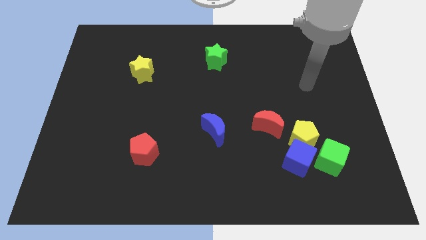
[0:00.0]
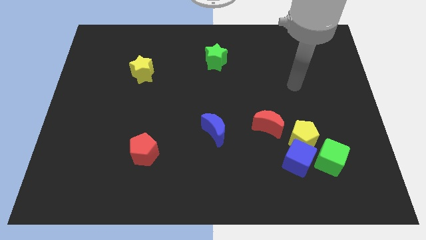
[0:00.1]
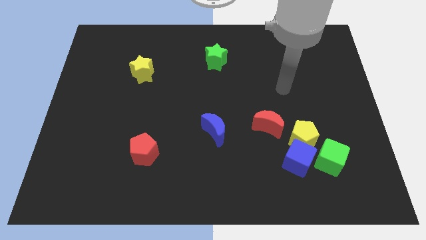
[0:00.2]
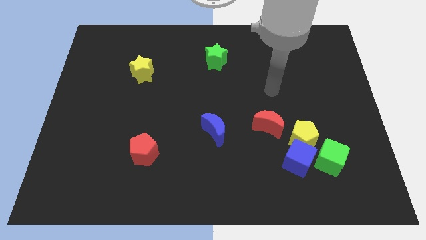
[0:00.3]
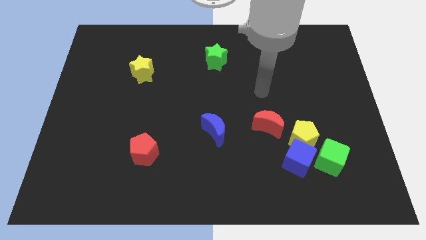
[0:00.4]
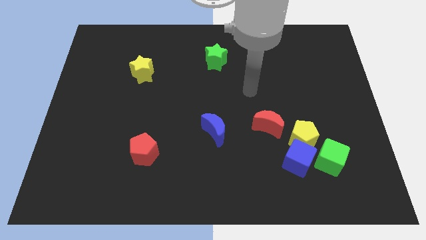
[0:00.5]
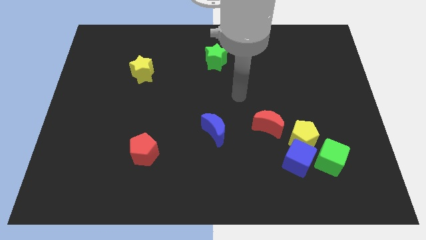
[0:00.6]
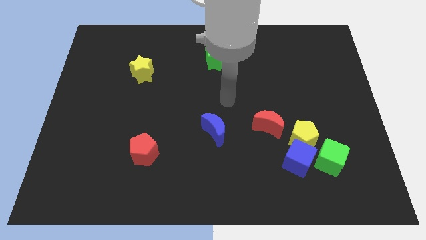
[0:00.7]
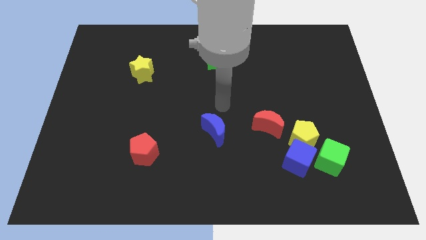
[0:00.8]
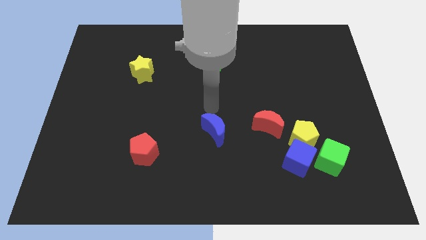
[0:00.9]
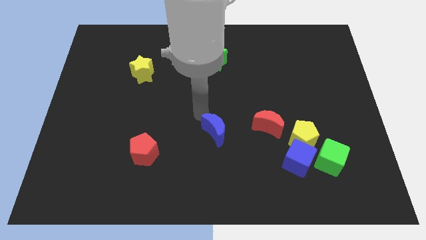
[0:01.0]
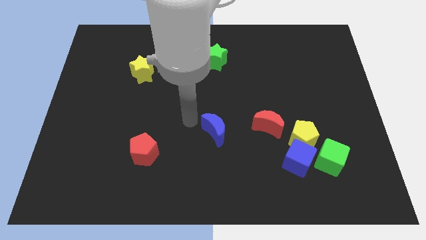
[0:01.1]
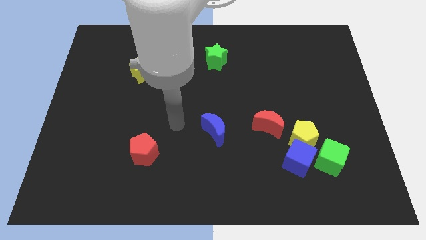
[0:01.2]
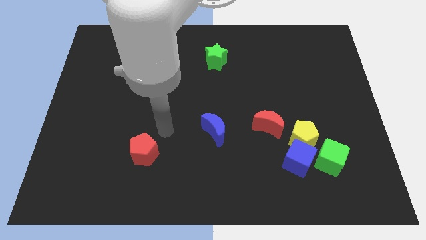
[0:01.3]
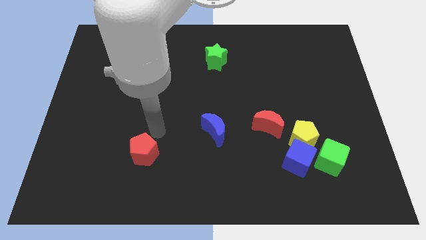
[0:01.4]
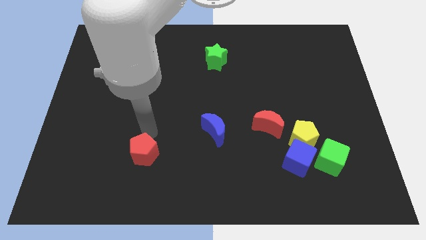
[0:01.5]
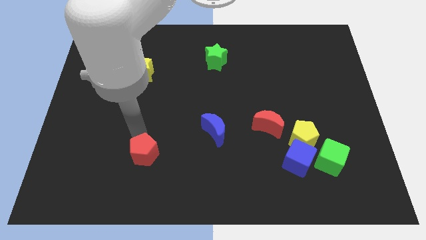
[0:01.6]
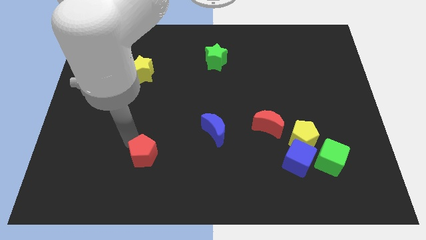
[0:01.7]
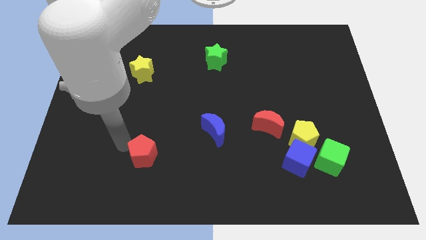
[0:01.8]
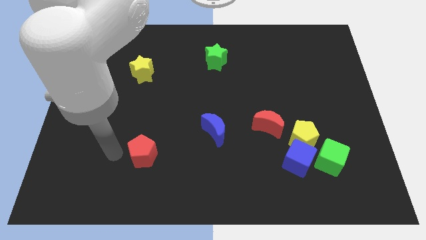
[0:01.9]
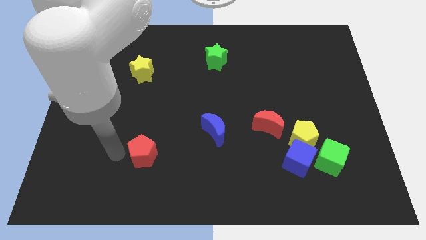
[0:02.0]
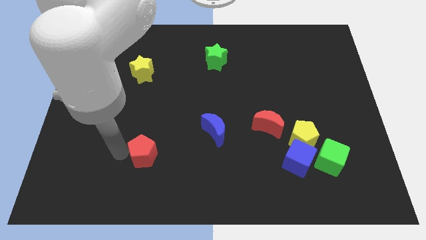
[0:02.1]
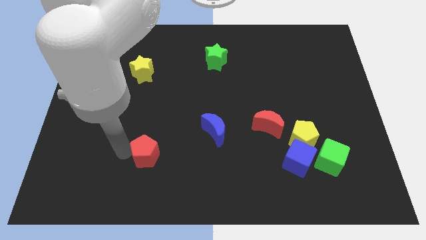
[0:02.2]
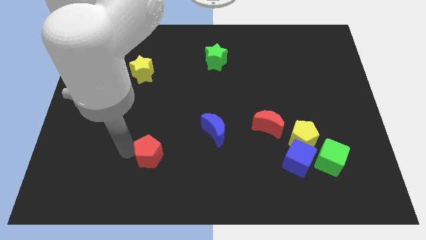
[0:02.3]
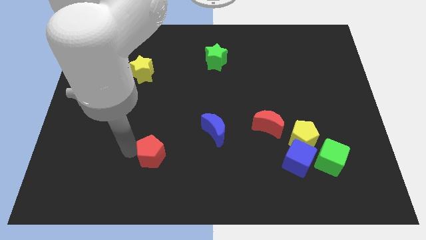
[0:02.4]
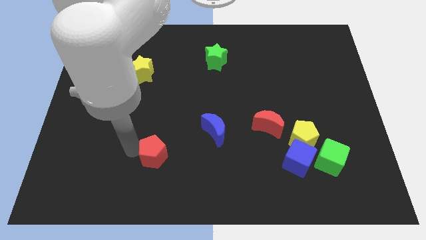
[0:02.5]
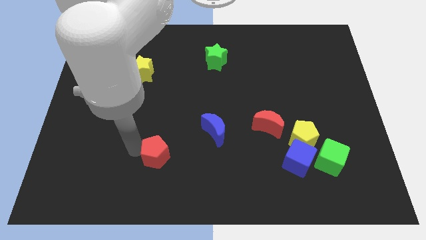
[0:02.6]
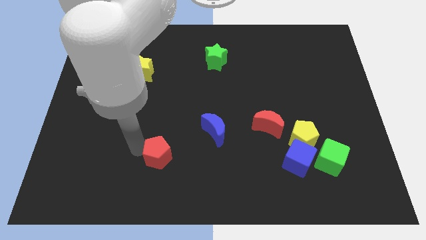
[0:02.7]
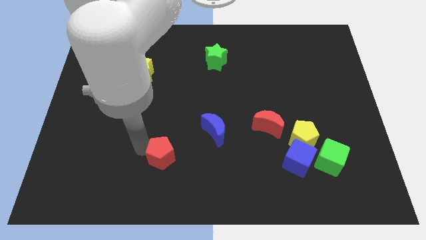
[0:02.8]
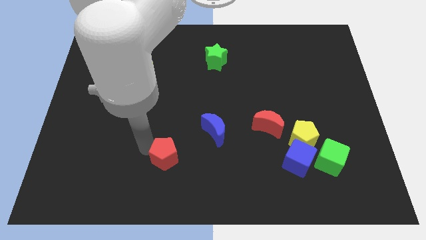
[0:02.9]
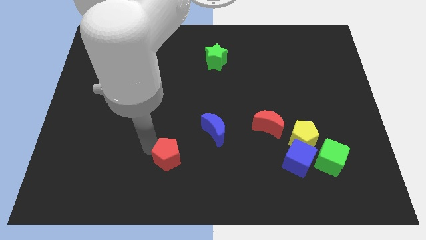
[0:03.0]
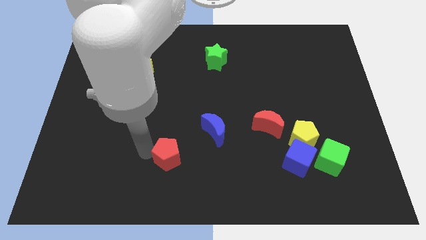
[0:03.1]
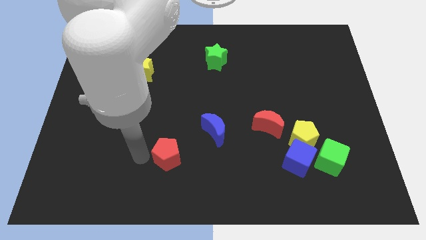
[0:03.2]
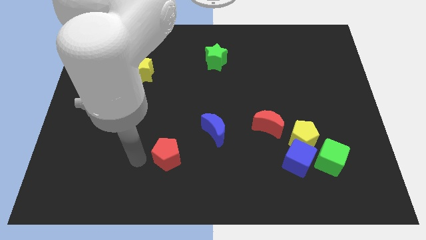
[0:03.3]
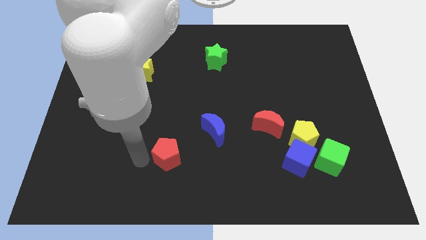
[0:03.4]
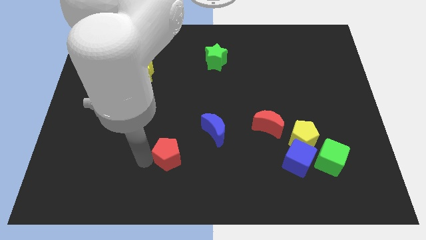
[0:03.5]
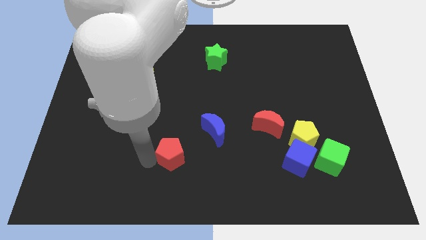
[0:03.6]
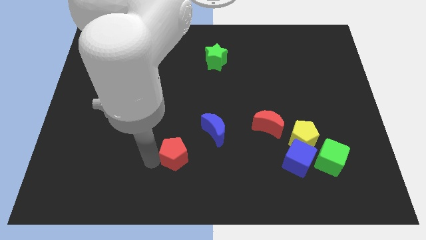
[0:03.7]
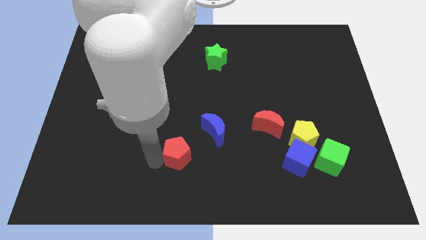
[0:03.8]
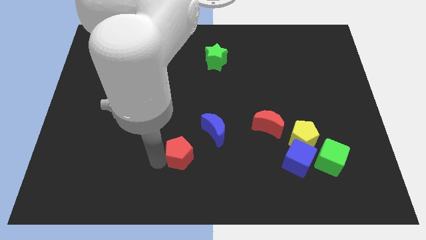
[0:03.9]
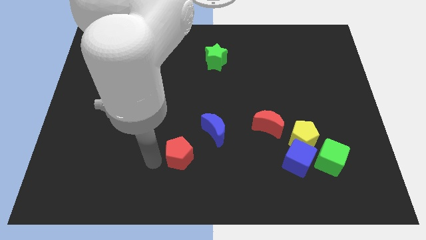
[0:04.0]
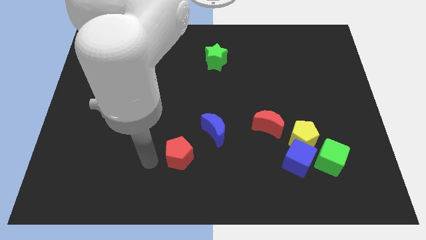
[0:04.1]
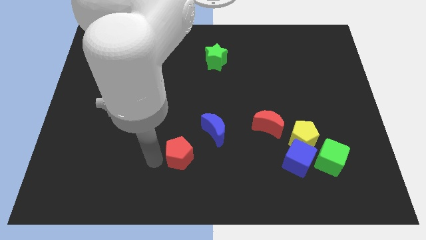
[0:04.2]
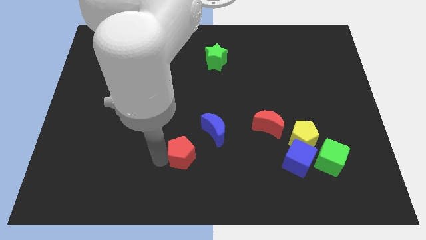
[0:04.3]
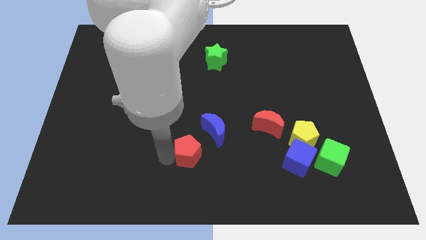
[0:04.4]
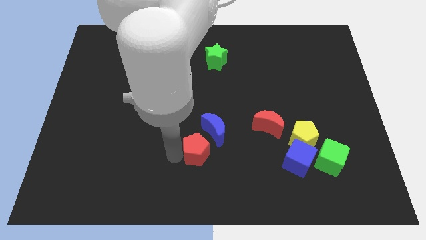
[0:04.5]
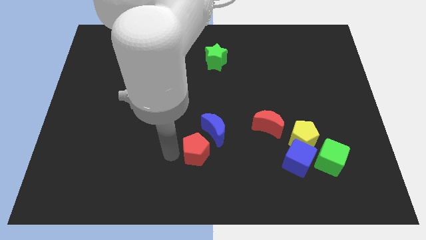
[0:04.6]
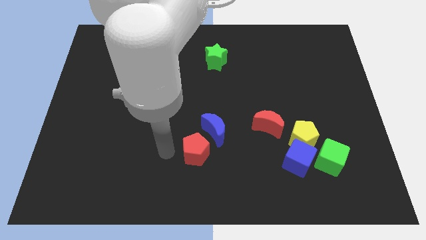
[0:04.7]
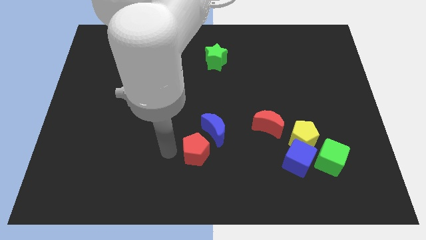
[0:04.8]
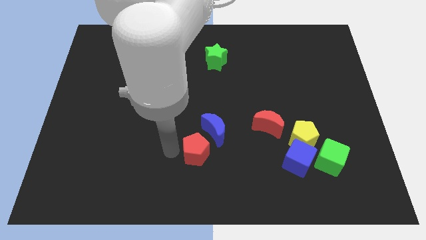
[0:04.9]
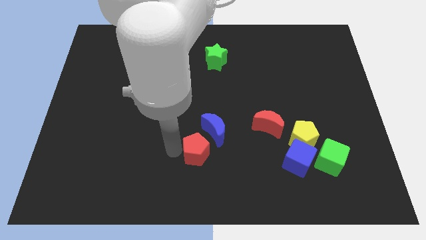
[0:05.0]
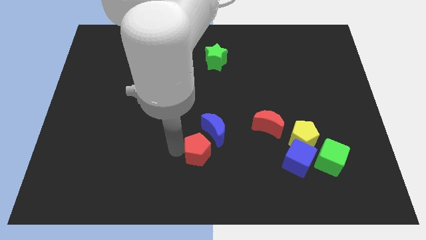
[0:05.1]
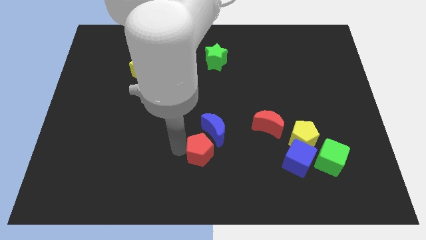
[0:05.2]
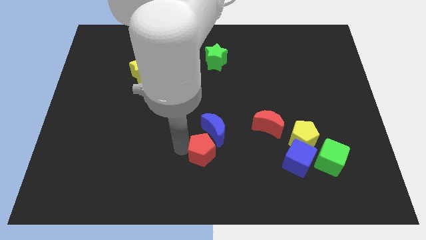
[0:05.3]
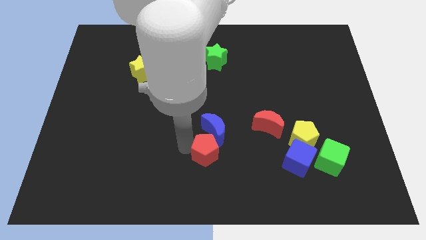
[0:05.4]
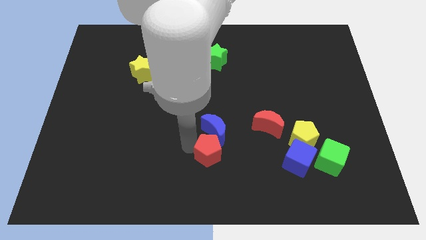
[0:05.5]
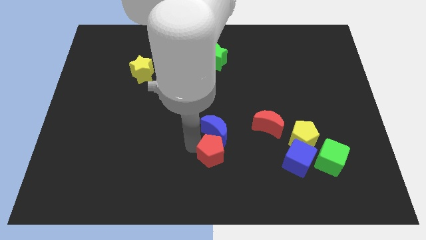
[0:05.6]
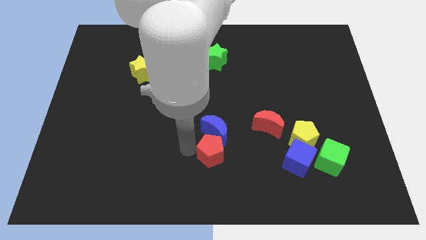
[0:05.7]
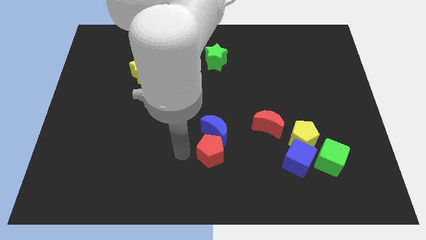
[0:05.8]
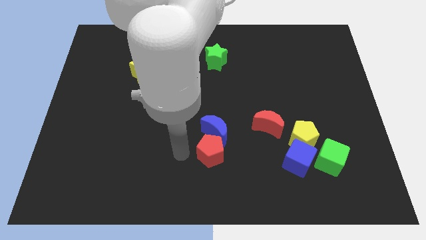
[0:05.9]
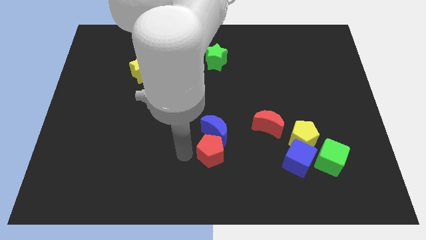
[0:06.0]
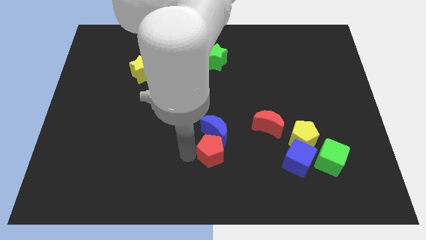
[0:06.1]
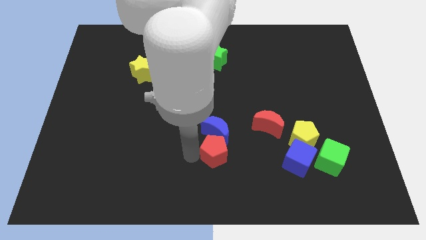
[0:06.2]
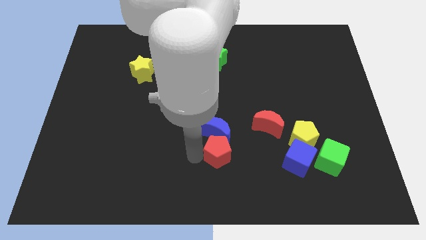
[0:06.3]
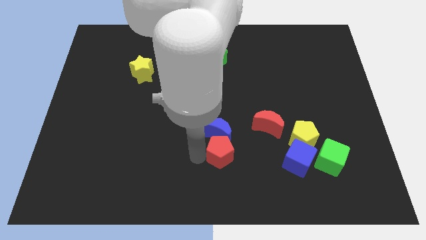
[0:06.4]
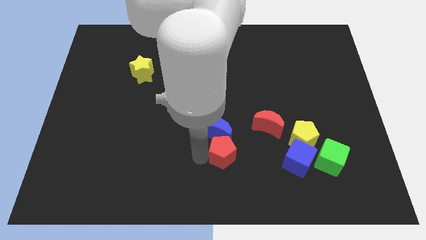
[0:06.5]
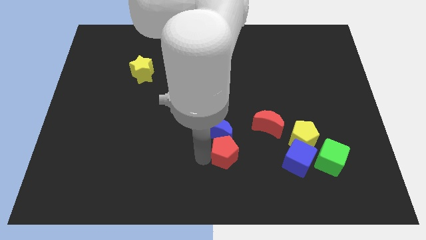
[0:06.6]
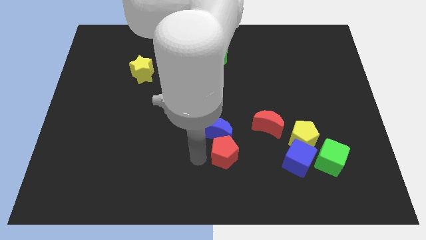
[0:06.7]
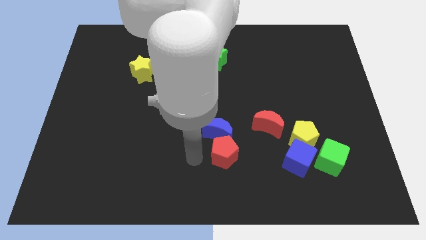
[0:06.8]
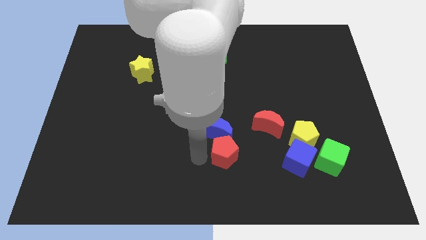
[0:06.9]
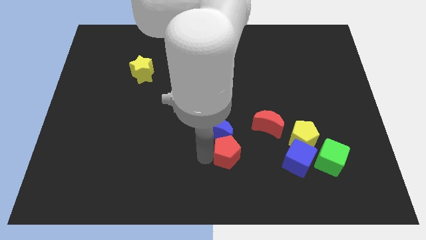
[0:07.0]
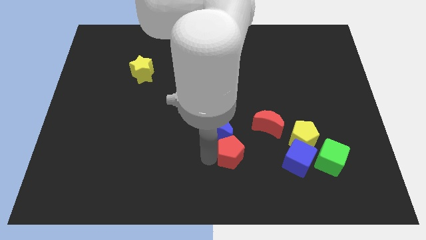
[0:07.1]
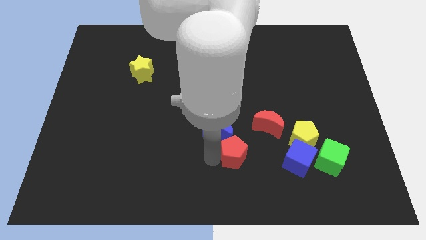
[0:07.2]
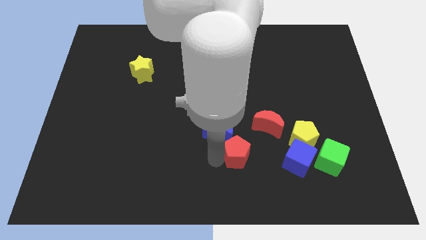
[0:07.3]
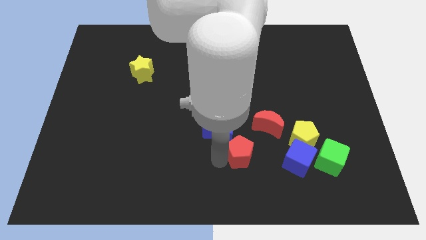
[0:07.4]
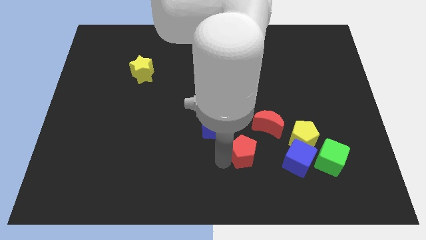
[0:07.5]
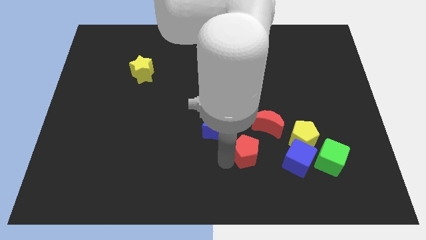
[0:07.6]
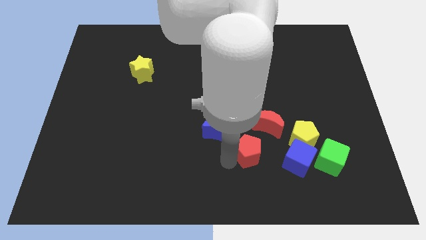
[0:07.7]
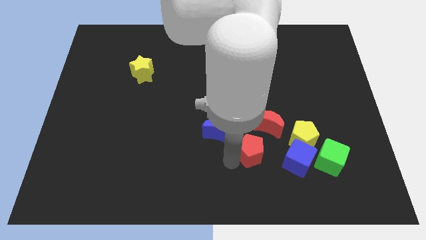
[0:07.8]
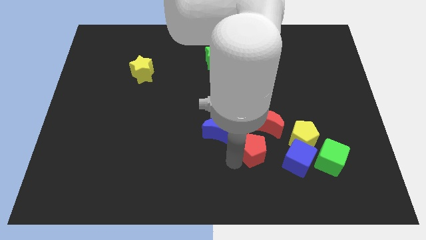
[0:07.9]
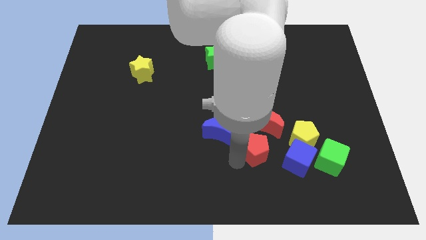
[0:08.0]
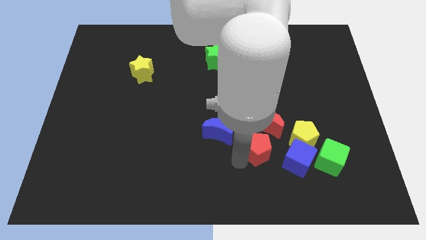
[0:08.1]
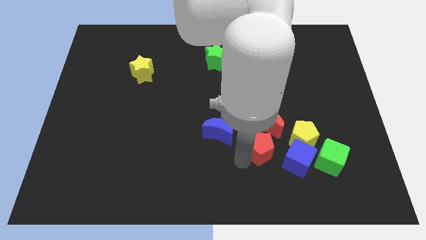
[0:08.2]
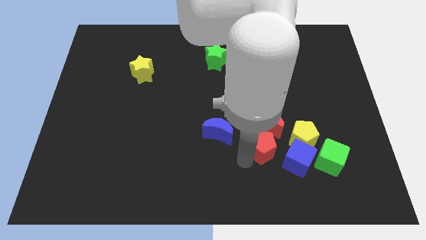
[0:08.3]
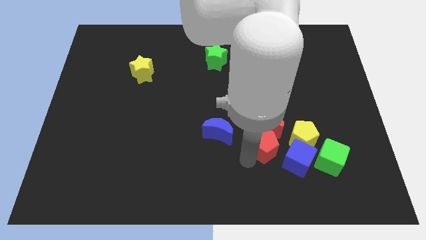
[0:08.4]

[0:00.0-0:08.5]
move the red pentagon towards the red moon
